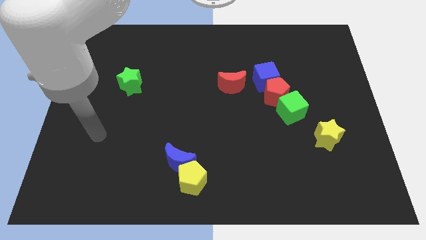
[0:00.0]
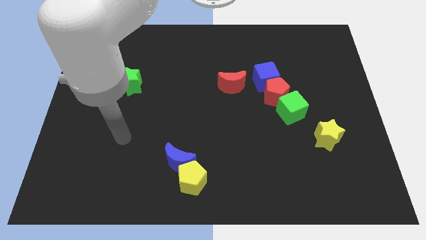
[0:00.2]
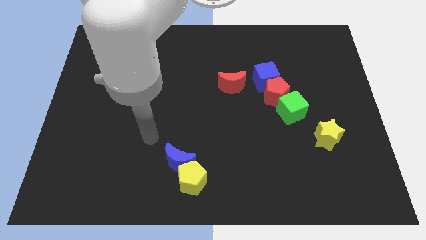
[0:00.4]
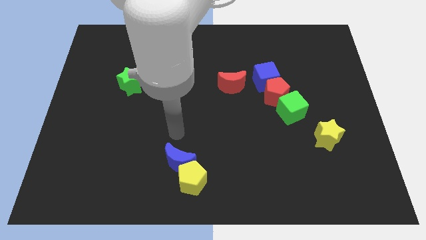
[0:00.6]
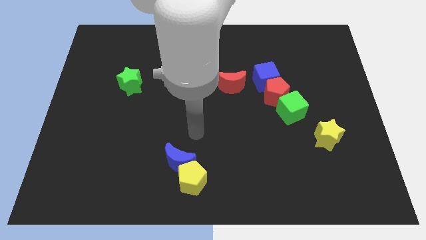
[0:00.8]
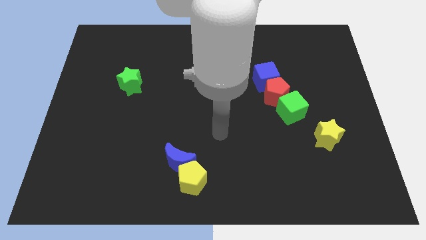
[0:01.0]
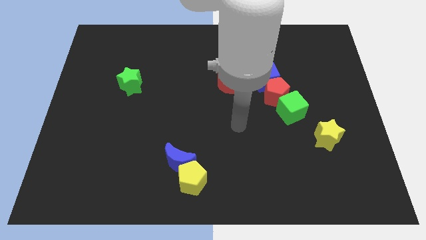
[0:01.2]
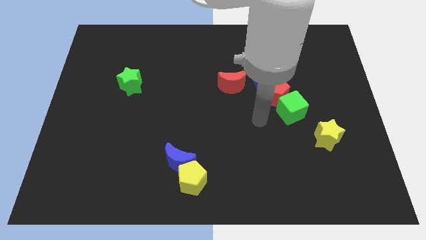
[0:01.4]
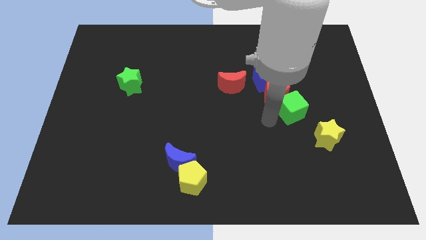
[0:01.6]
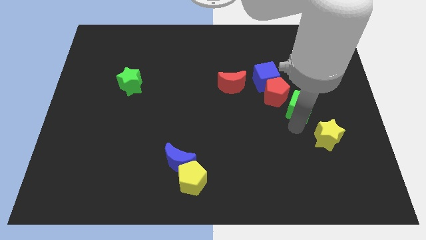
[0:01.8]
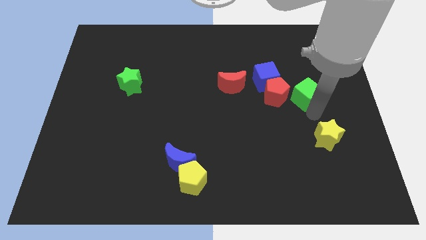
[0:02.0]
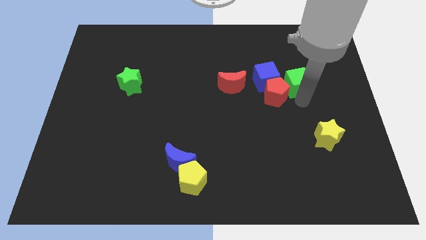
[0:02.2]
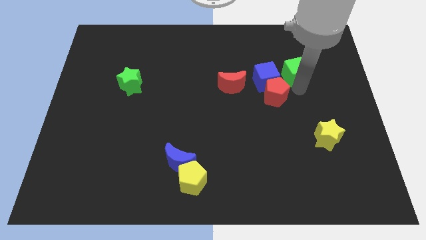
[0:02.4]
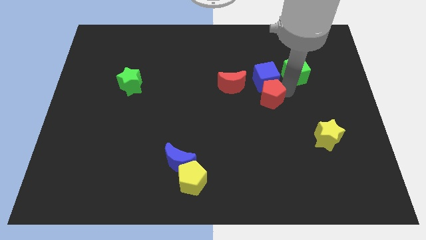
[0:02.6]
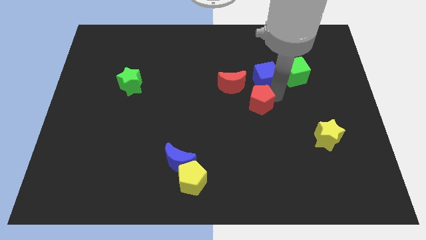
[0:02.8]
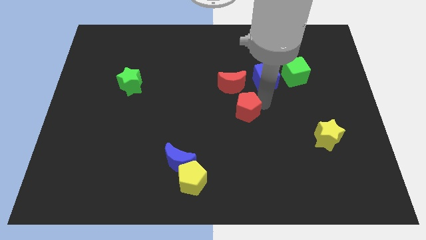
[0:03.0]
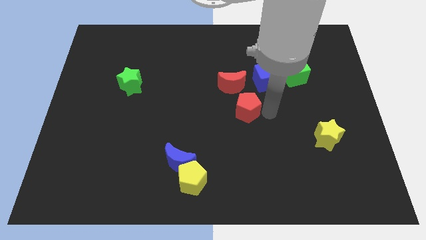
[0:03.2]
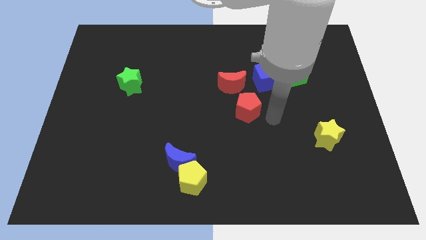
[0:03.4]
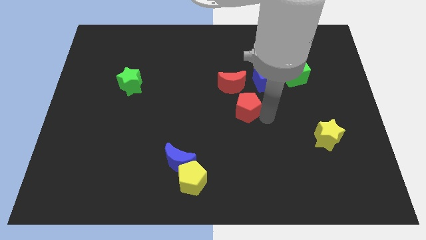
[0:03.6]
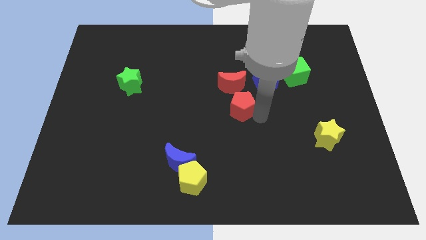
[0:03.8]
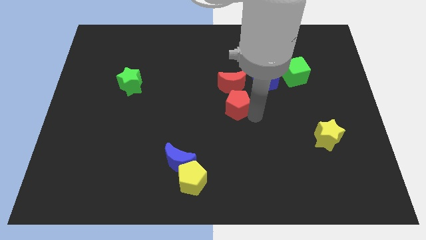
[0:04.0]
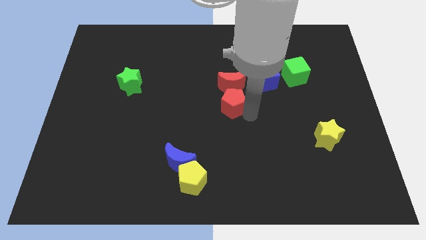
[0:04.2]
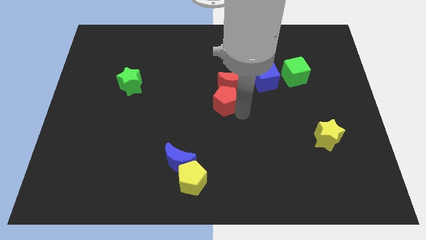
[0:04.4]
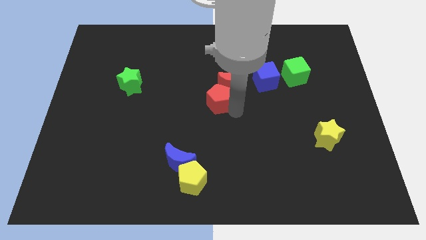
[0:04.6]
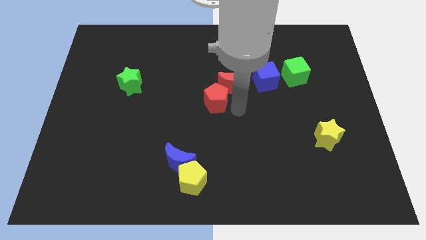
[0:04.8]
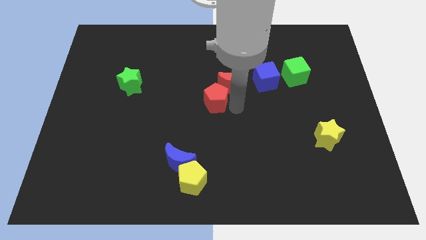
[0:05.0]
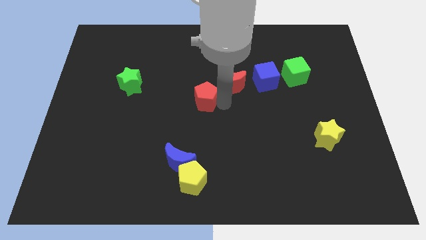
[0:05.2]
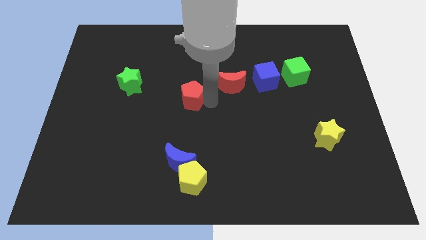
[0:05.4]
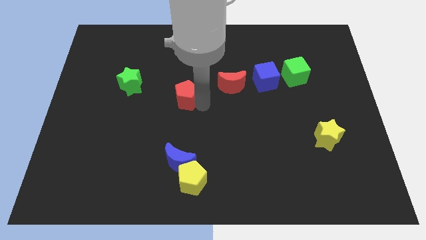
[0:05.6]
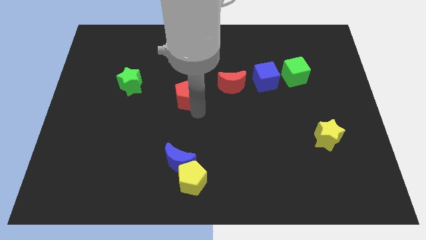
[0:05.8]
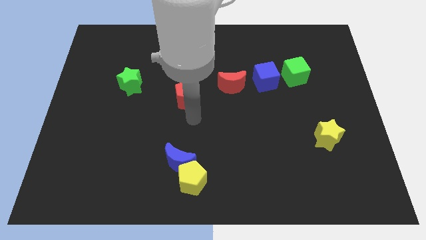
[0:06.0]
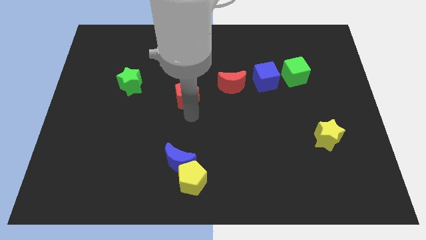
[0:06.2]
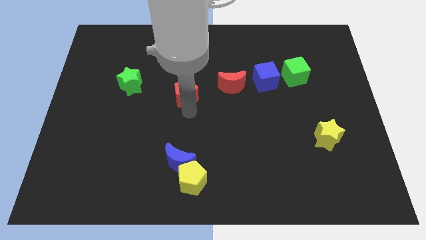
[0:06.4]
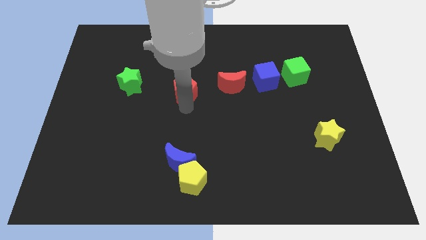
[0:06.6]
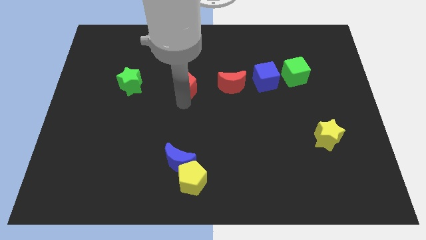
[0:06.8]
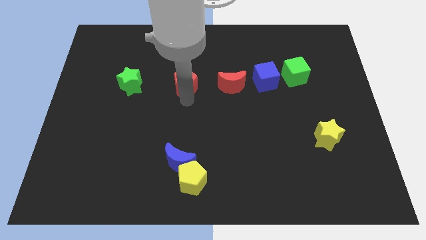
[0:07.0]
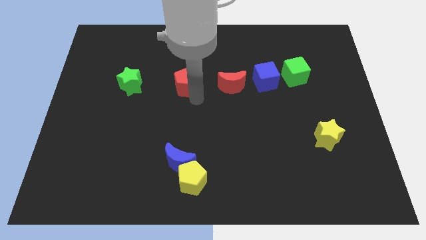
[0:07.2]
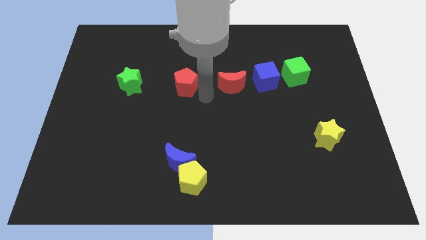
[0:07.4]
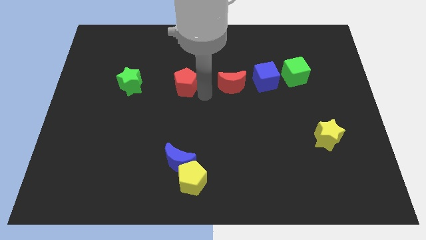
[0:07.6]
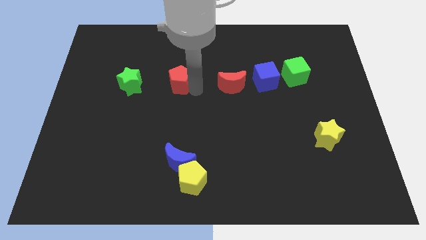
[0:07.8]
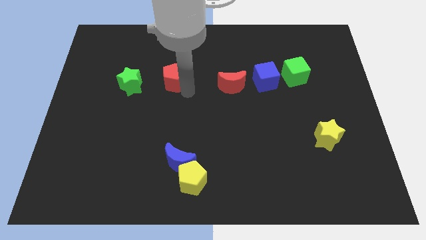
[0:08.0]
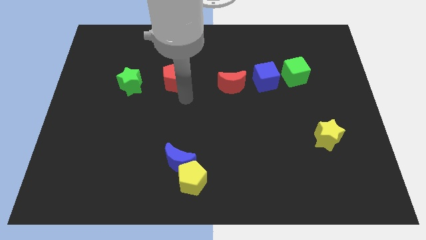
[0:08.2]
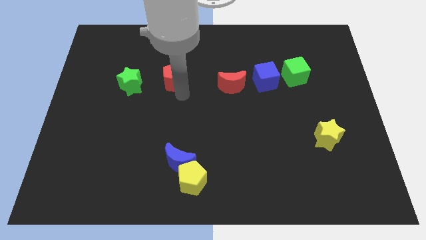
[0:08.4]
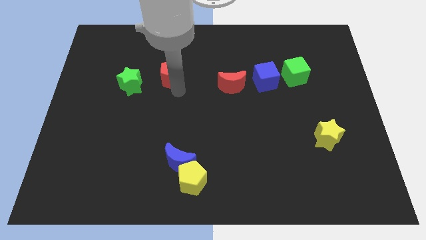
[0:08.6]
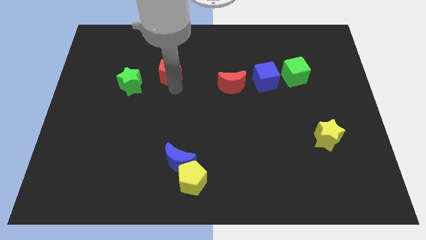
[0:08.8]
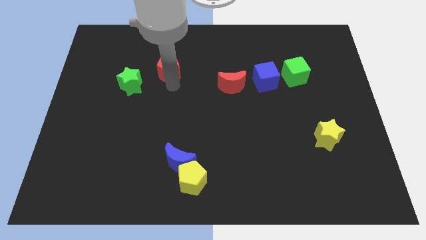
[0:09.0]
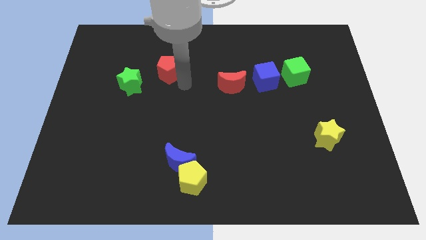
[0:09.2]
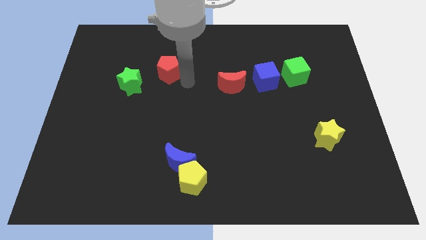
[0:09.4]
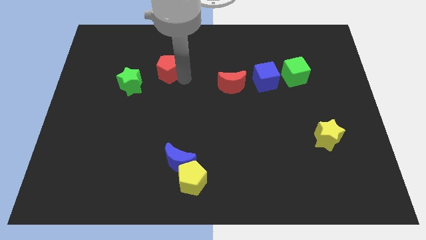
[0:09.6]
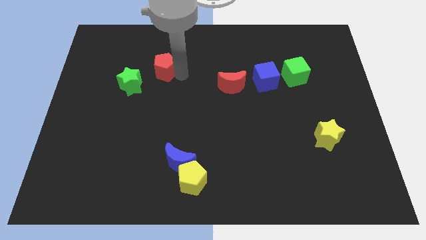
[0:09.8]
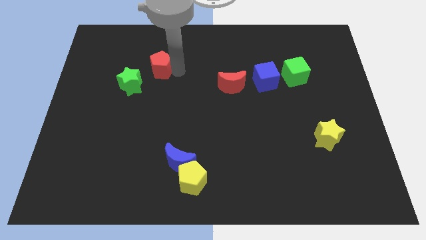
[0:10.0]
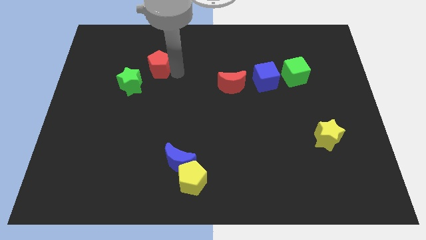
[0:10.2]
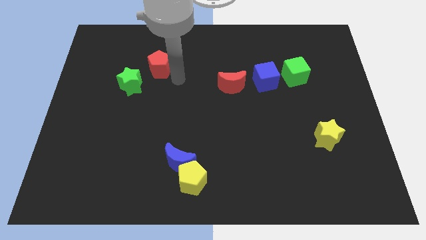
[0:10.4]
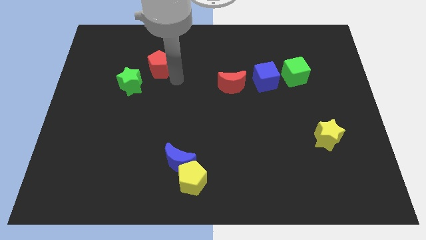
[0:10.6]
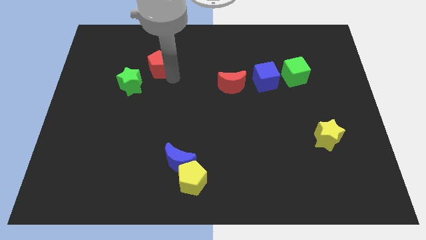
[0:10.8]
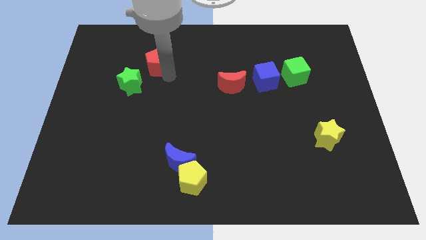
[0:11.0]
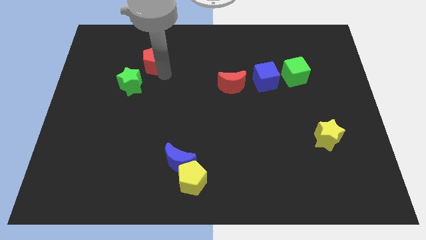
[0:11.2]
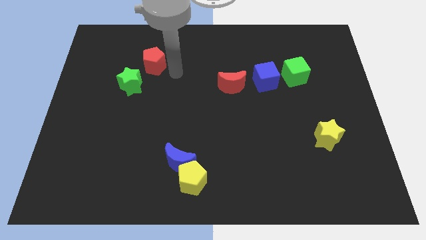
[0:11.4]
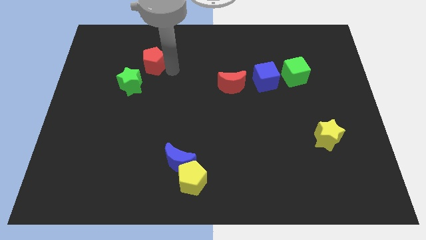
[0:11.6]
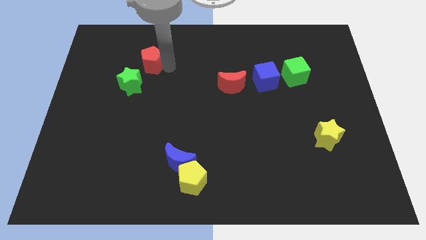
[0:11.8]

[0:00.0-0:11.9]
push the red pentagon to the top side of the green star

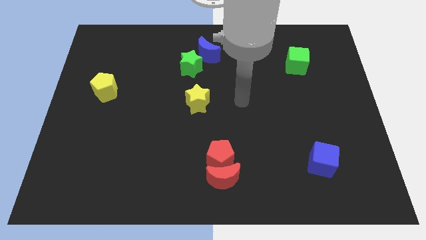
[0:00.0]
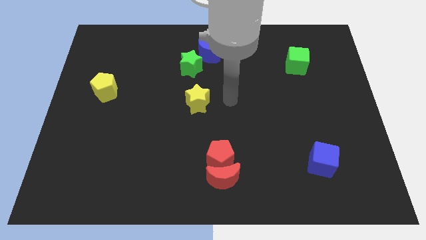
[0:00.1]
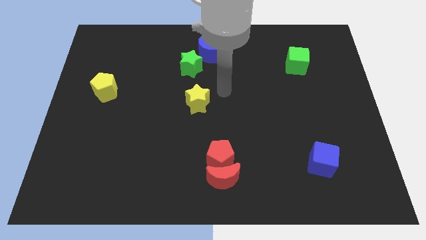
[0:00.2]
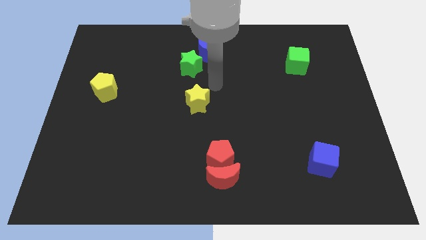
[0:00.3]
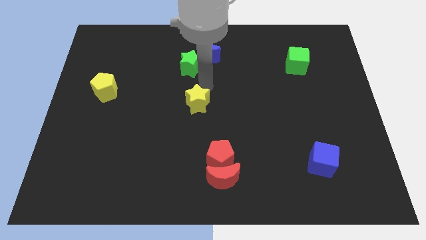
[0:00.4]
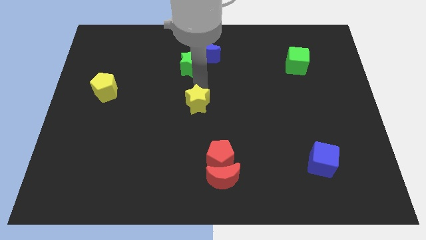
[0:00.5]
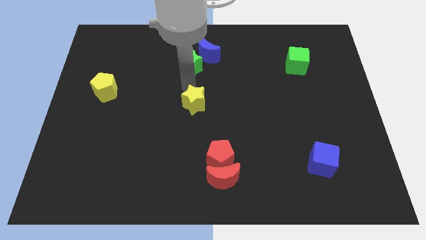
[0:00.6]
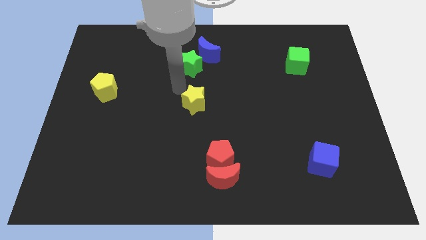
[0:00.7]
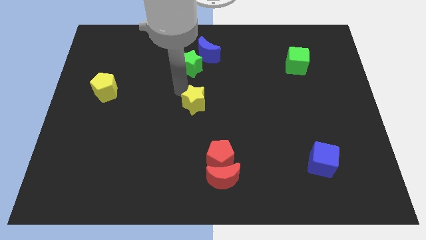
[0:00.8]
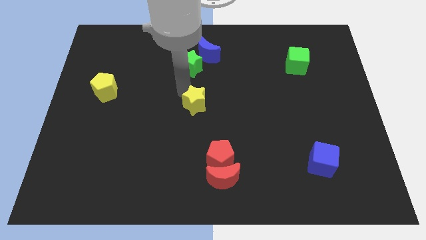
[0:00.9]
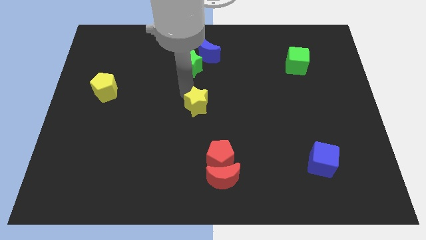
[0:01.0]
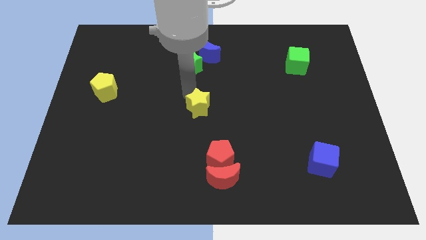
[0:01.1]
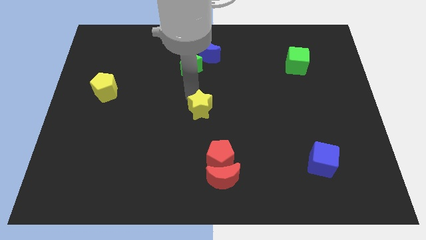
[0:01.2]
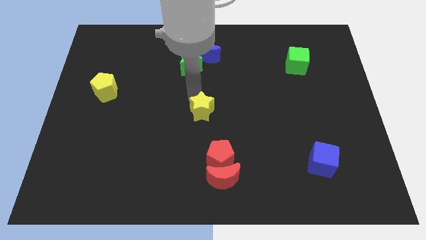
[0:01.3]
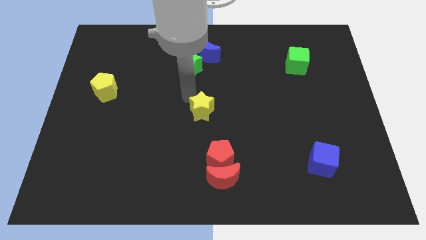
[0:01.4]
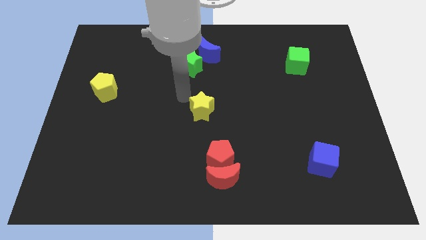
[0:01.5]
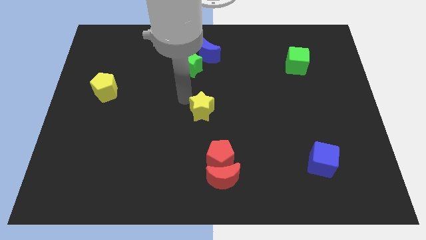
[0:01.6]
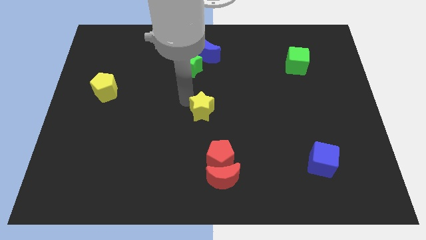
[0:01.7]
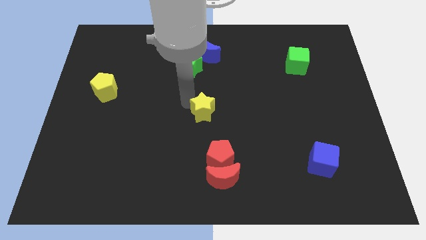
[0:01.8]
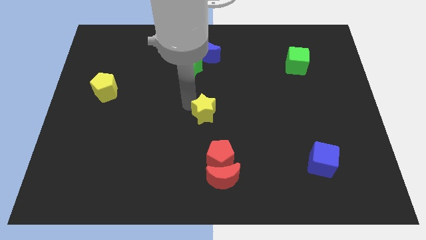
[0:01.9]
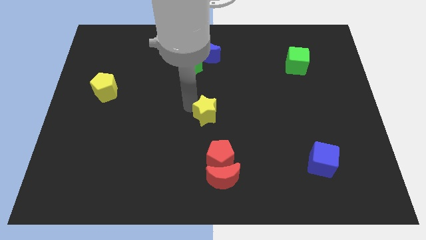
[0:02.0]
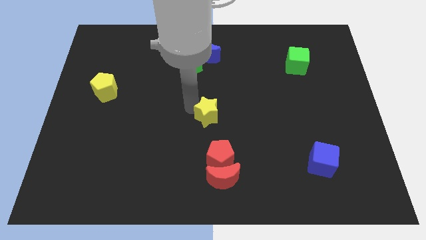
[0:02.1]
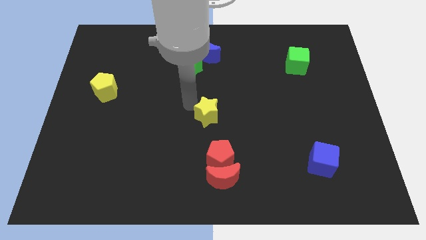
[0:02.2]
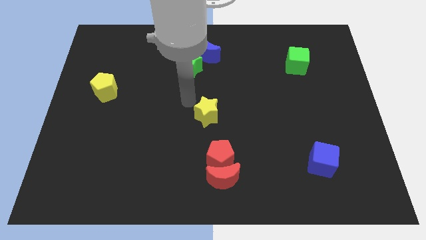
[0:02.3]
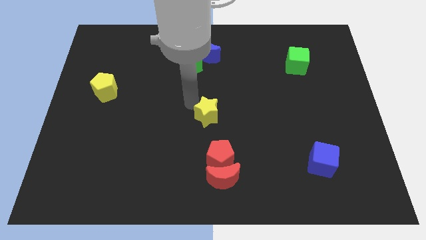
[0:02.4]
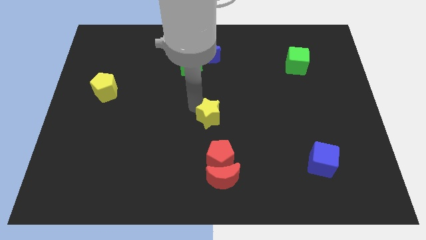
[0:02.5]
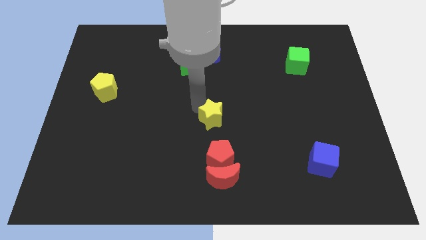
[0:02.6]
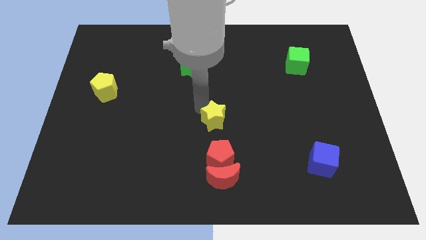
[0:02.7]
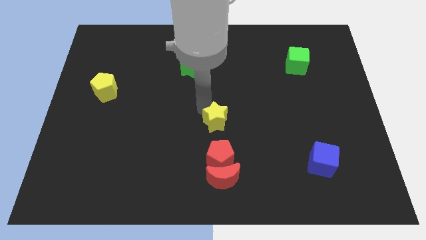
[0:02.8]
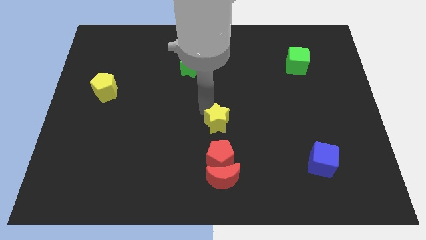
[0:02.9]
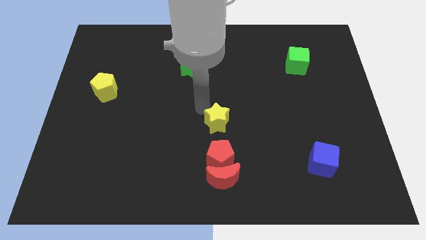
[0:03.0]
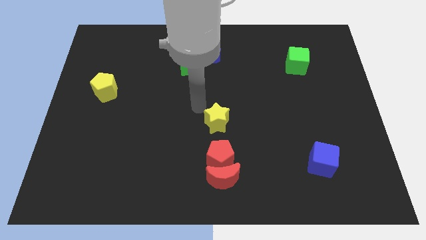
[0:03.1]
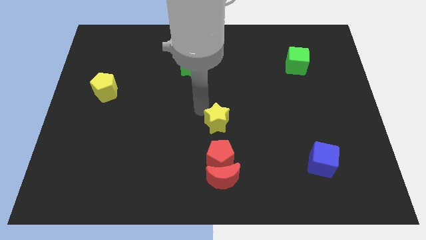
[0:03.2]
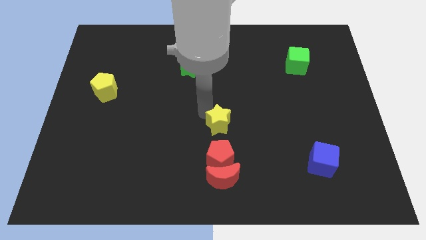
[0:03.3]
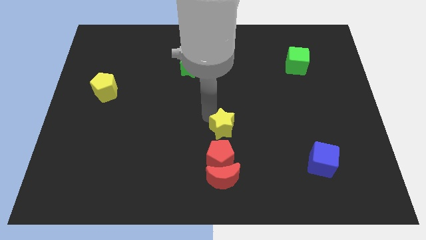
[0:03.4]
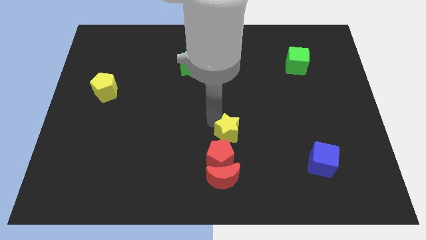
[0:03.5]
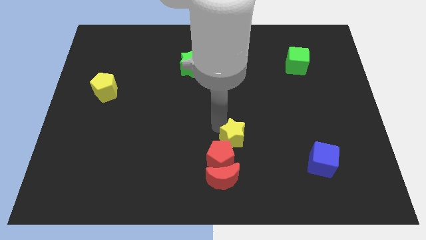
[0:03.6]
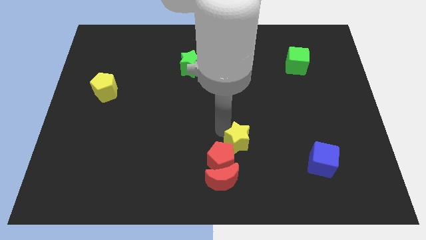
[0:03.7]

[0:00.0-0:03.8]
put the yellow star diagonally up and to the right of the red moon
